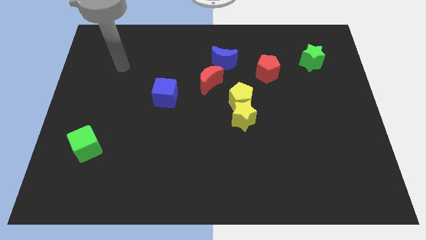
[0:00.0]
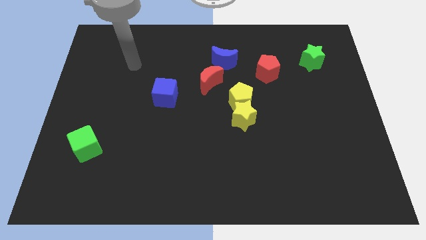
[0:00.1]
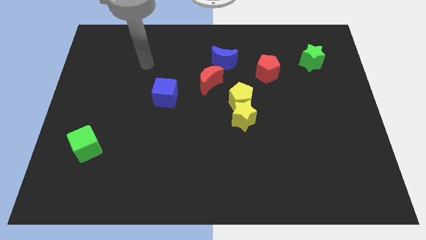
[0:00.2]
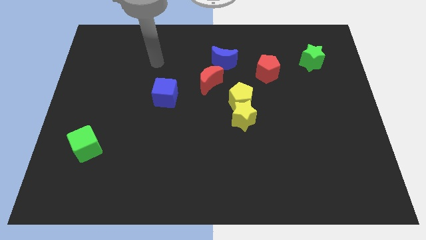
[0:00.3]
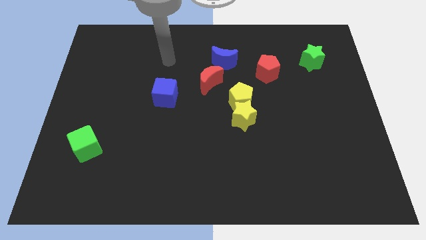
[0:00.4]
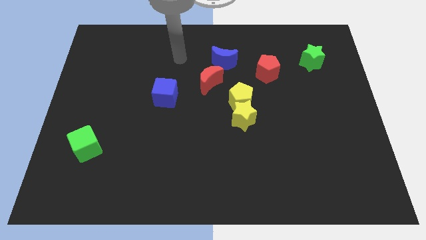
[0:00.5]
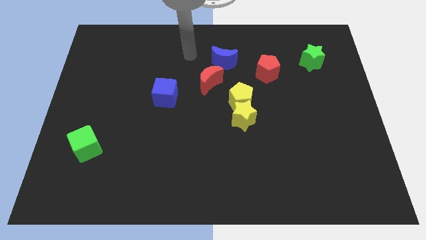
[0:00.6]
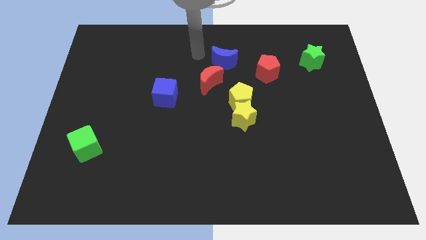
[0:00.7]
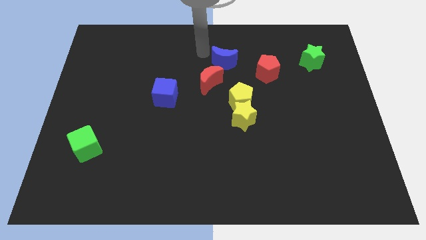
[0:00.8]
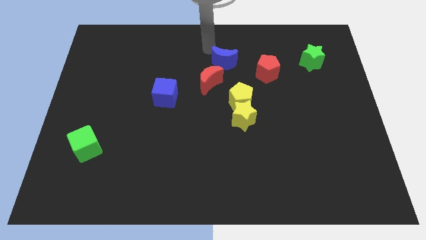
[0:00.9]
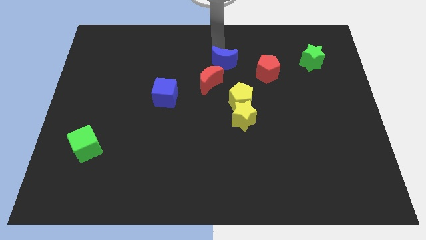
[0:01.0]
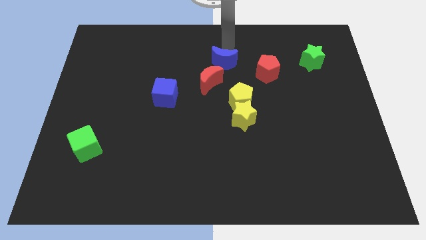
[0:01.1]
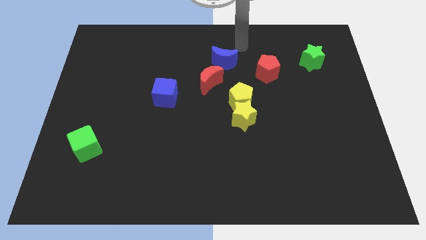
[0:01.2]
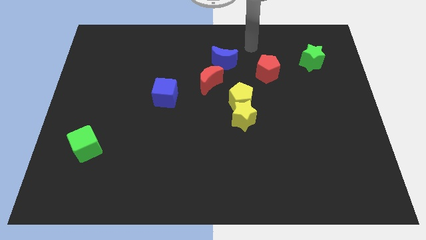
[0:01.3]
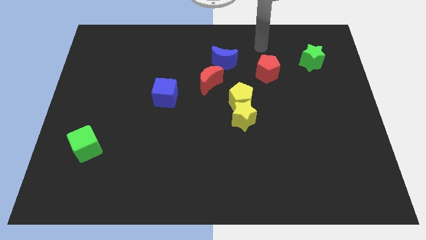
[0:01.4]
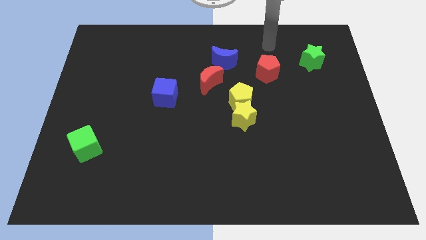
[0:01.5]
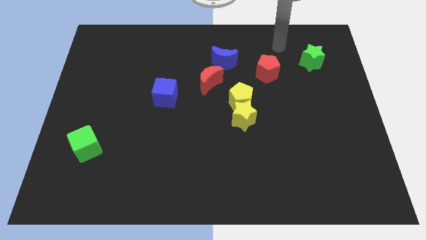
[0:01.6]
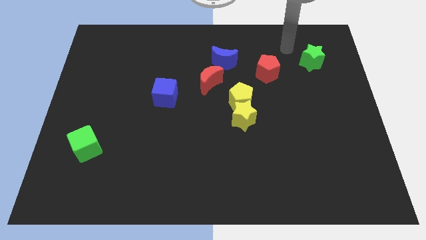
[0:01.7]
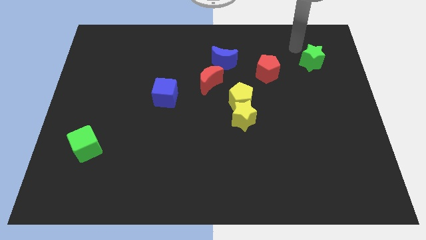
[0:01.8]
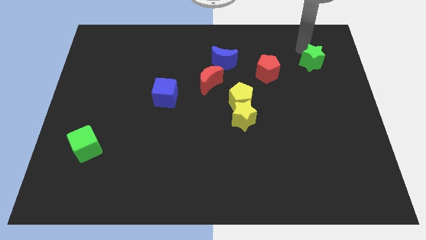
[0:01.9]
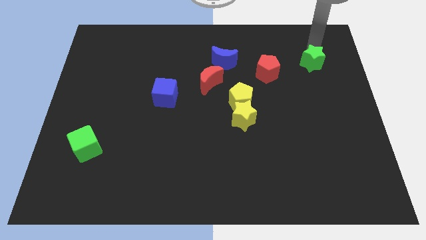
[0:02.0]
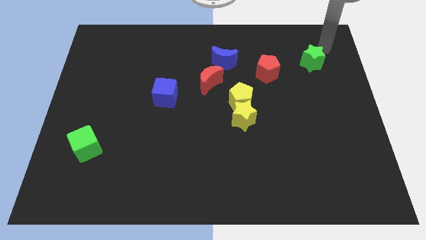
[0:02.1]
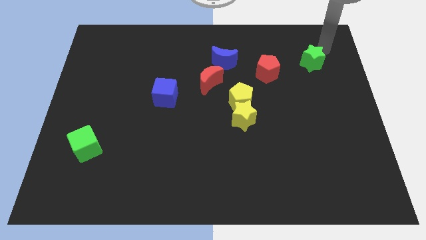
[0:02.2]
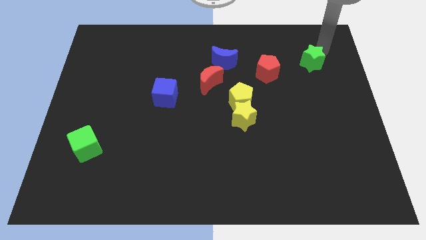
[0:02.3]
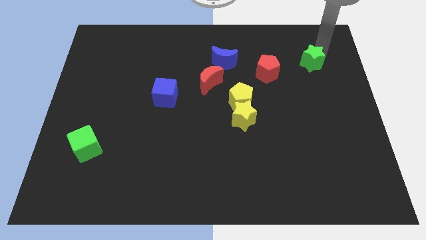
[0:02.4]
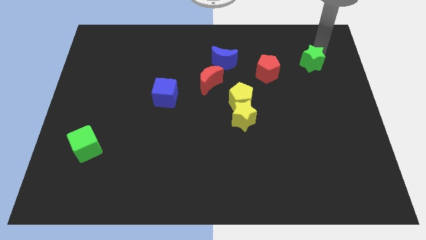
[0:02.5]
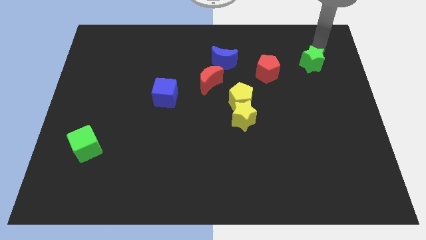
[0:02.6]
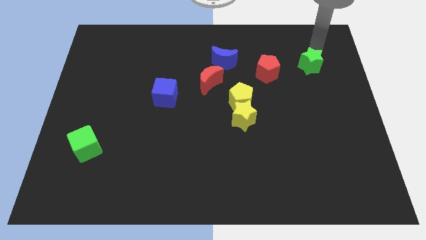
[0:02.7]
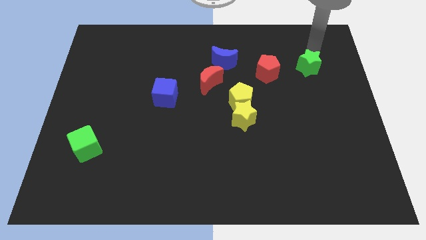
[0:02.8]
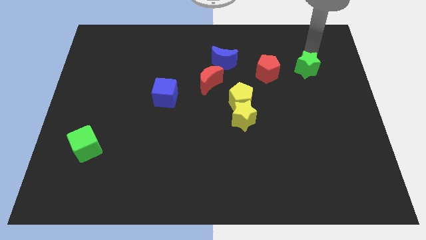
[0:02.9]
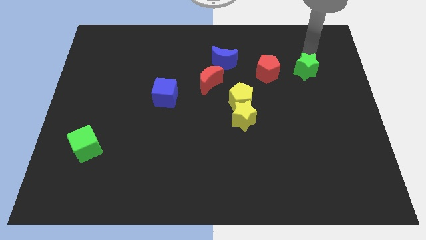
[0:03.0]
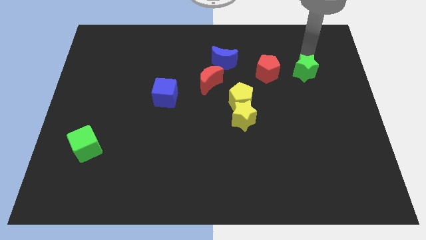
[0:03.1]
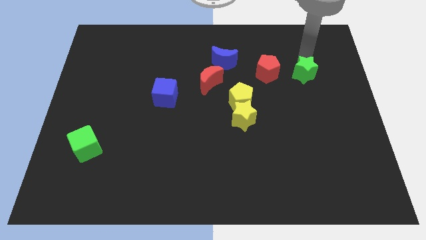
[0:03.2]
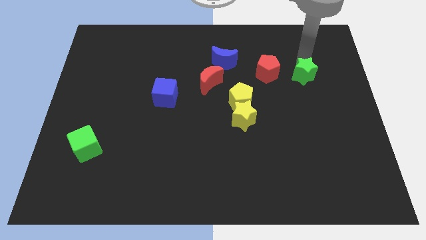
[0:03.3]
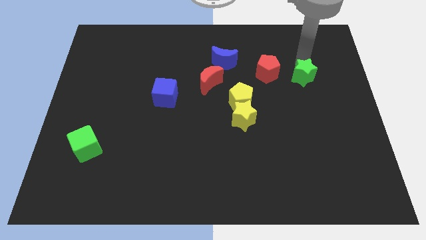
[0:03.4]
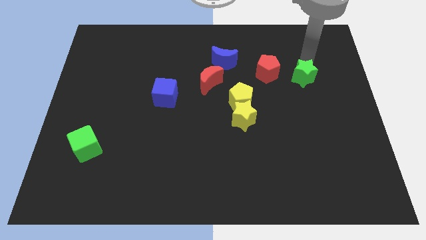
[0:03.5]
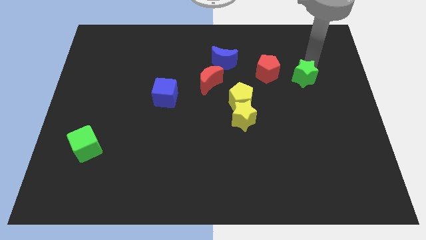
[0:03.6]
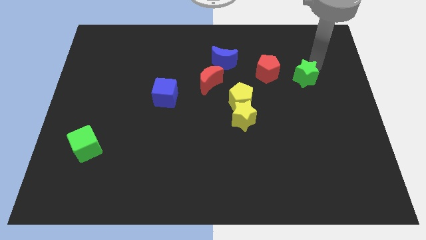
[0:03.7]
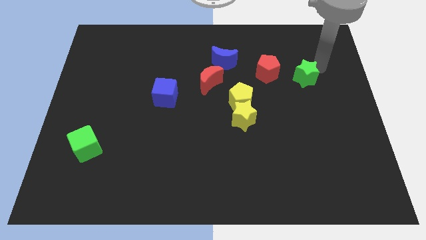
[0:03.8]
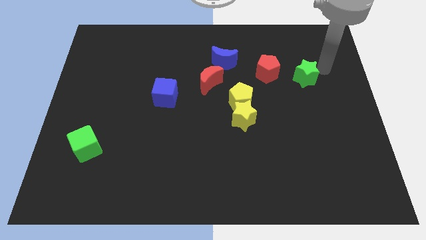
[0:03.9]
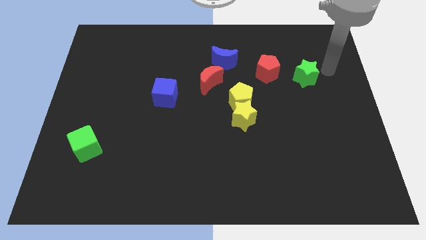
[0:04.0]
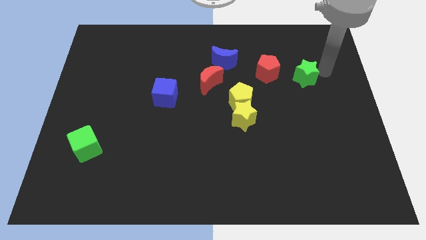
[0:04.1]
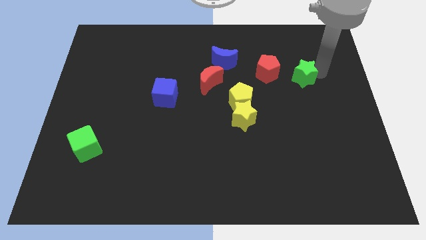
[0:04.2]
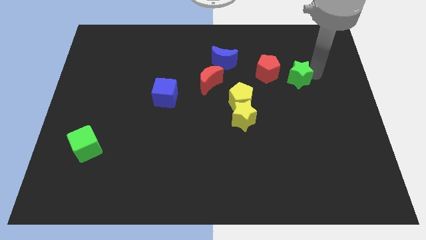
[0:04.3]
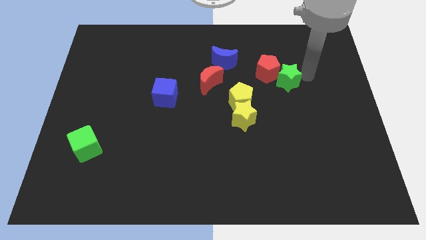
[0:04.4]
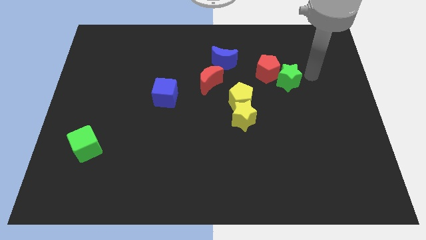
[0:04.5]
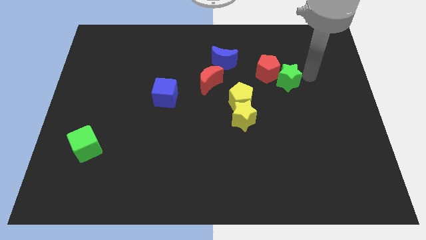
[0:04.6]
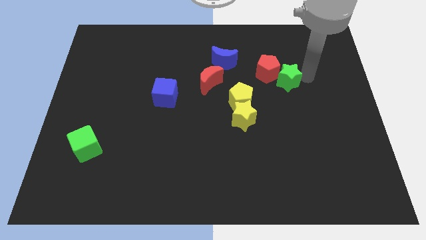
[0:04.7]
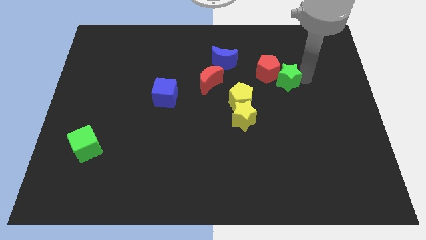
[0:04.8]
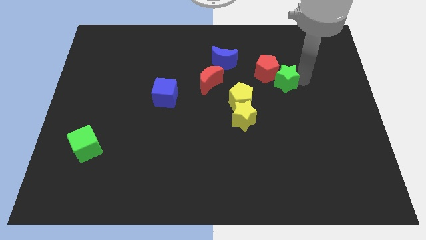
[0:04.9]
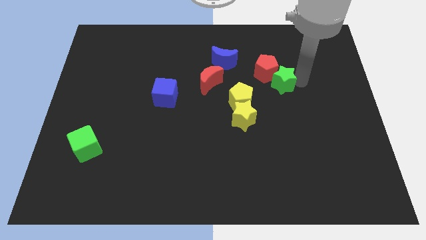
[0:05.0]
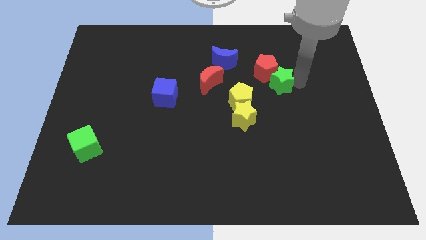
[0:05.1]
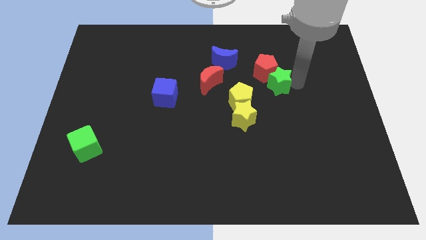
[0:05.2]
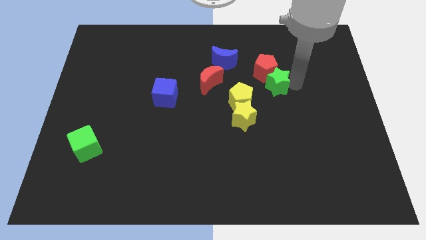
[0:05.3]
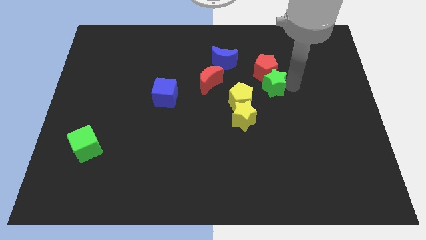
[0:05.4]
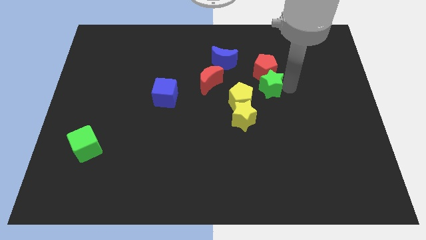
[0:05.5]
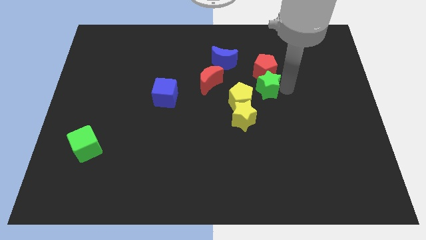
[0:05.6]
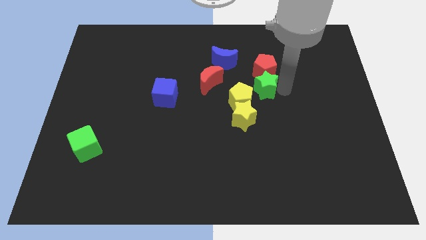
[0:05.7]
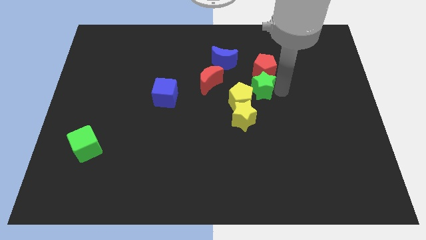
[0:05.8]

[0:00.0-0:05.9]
move the green star to the top side of the yellow star
